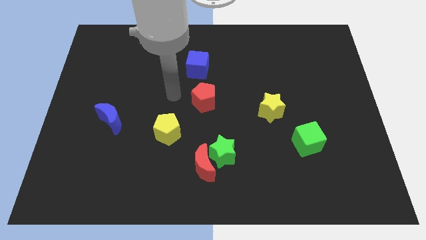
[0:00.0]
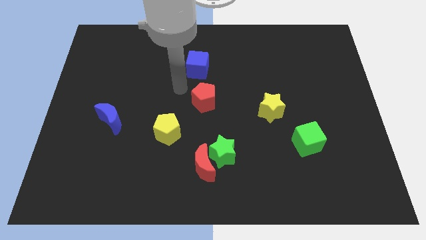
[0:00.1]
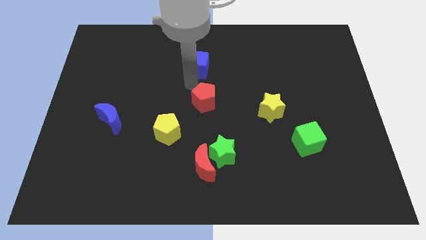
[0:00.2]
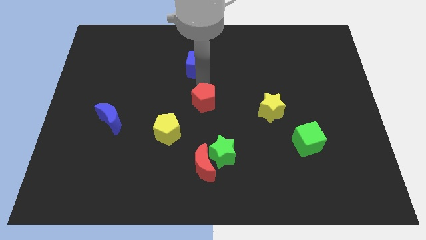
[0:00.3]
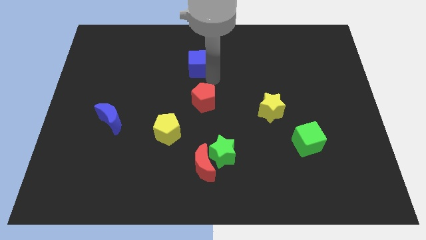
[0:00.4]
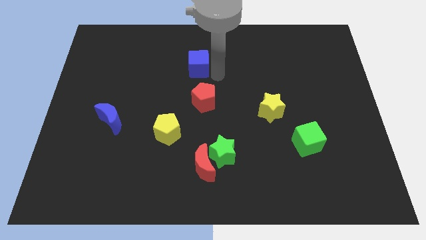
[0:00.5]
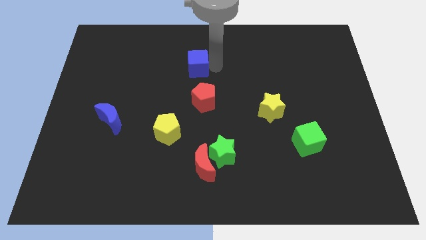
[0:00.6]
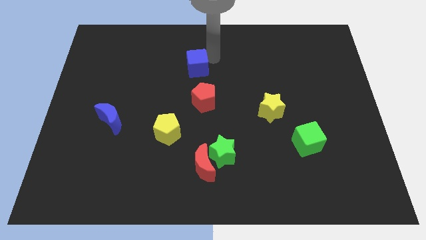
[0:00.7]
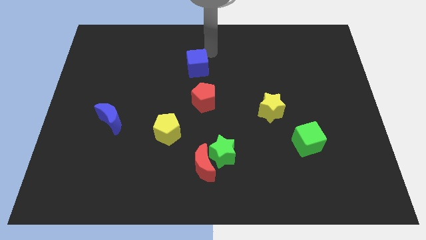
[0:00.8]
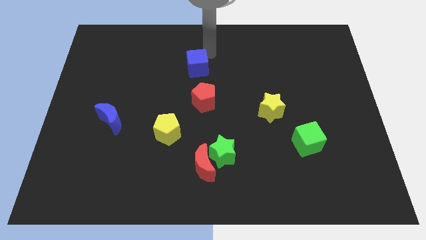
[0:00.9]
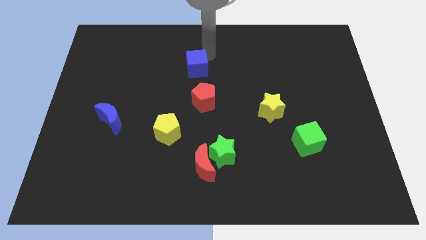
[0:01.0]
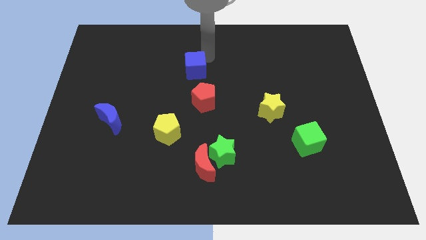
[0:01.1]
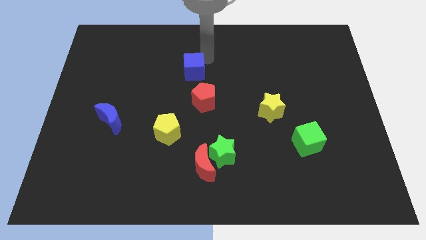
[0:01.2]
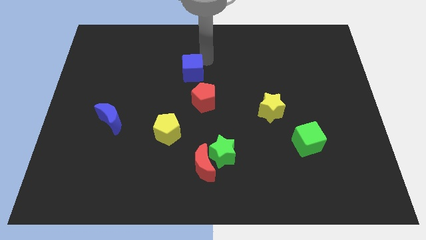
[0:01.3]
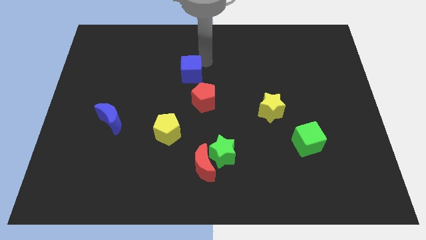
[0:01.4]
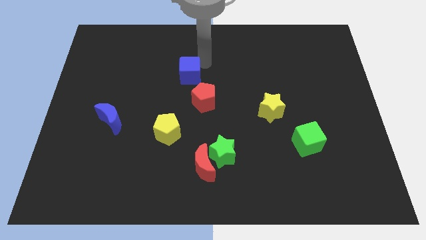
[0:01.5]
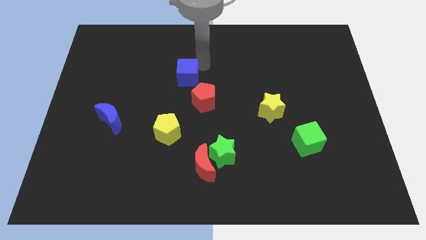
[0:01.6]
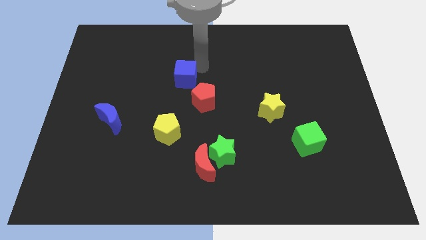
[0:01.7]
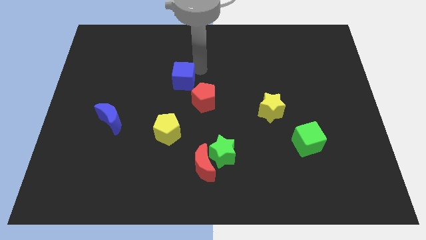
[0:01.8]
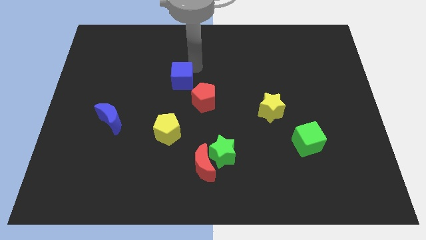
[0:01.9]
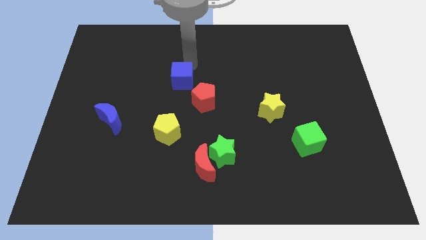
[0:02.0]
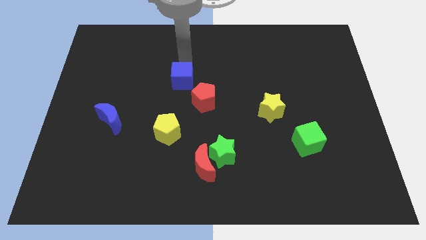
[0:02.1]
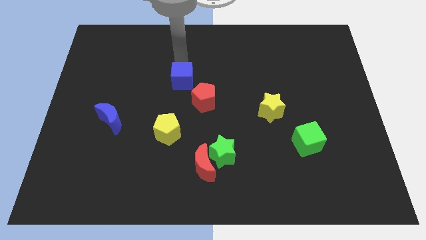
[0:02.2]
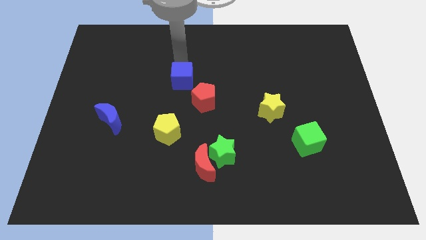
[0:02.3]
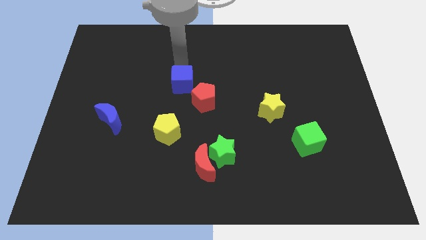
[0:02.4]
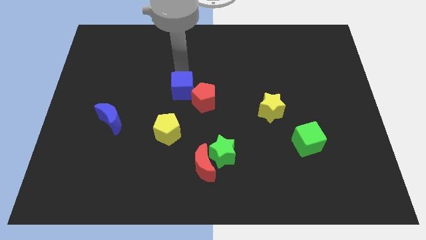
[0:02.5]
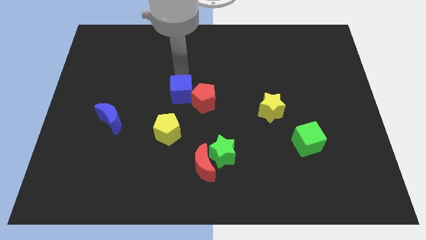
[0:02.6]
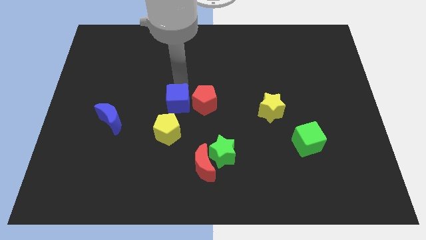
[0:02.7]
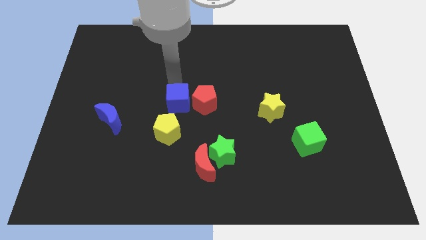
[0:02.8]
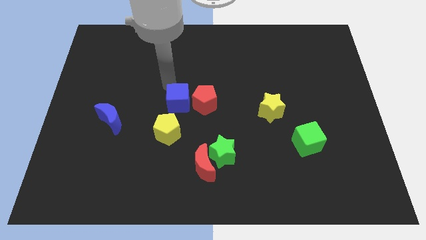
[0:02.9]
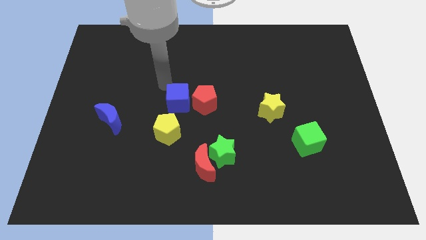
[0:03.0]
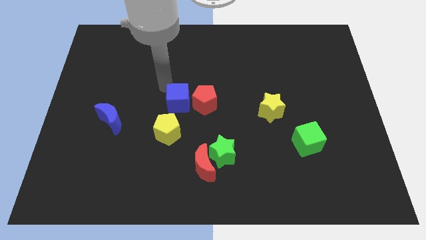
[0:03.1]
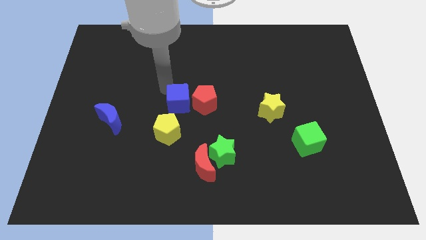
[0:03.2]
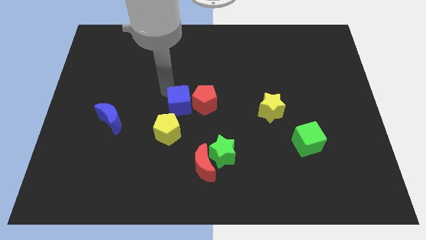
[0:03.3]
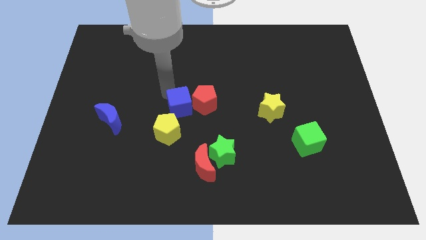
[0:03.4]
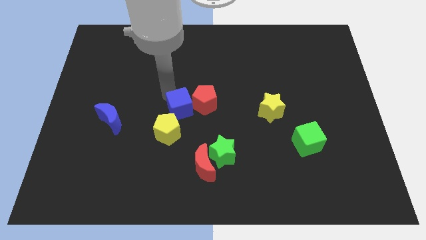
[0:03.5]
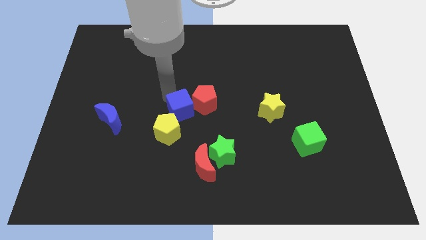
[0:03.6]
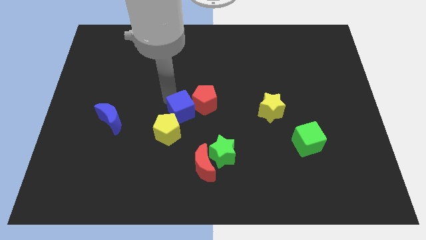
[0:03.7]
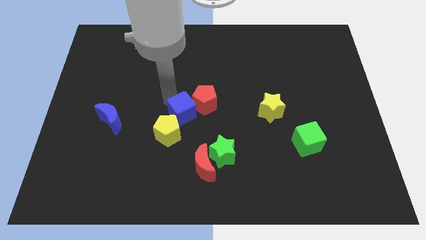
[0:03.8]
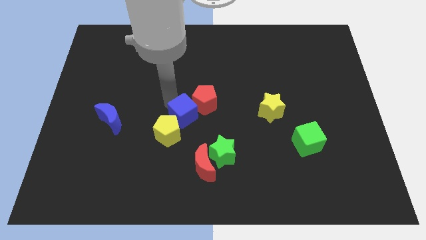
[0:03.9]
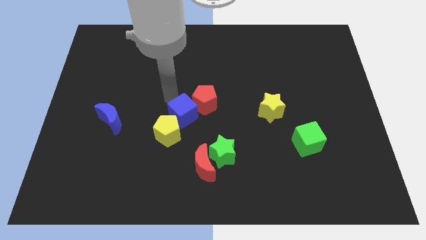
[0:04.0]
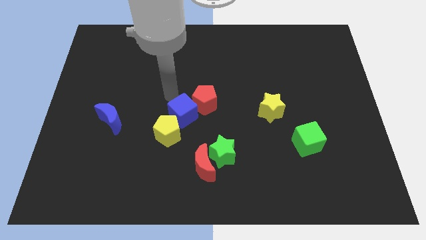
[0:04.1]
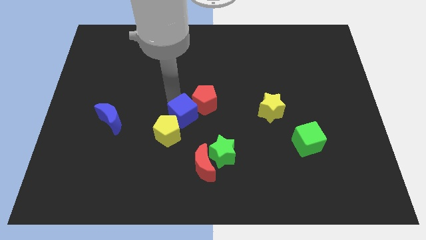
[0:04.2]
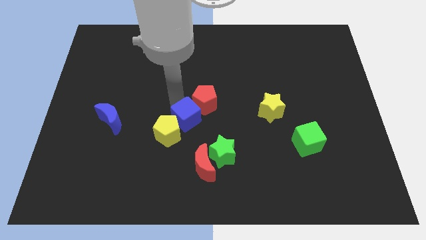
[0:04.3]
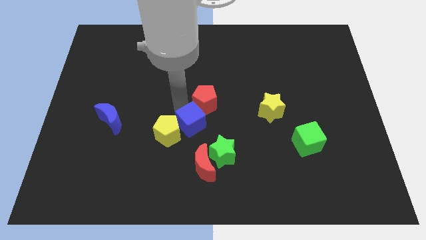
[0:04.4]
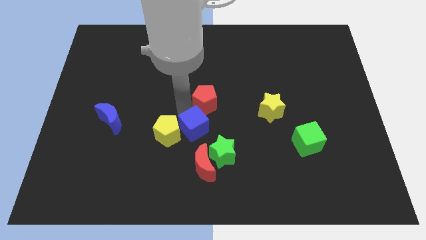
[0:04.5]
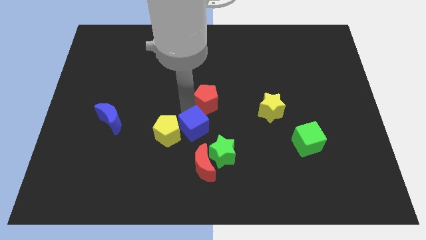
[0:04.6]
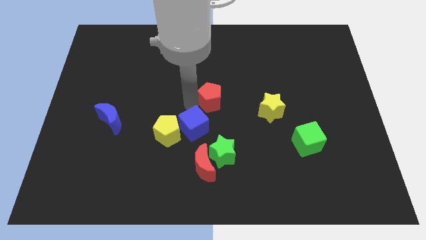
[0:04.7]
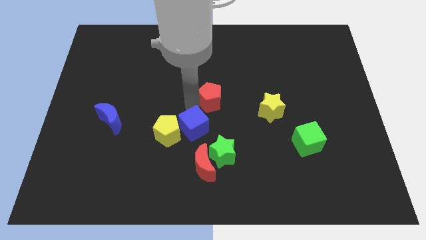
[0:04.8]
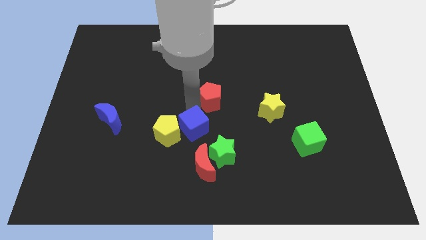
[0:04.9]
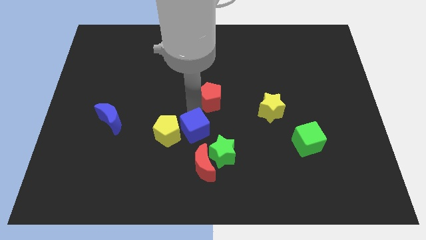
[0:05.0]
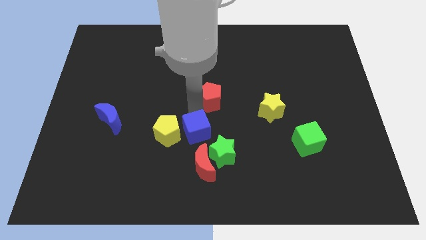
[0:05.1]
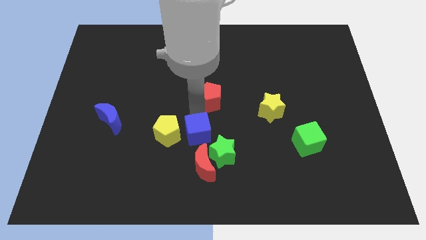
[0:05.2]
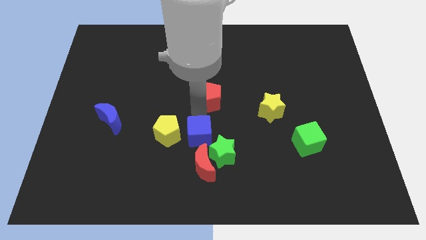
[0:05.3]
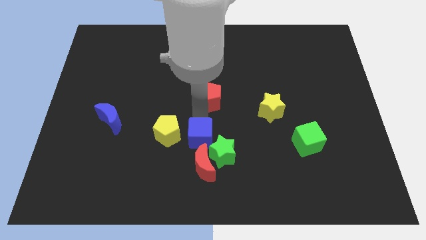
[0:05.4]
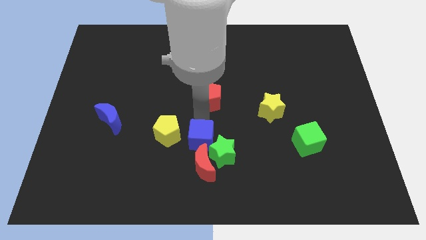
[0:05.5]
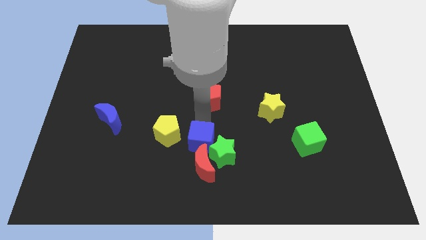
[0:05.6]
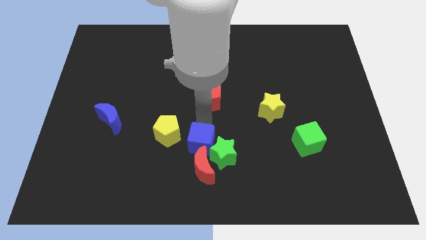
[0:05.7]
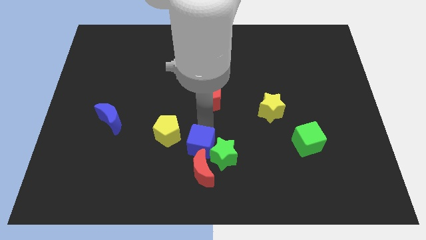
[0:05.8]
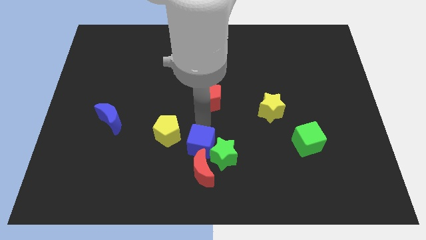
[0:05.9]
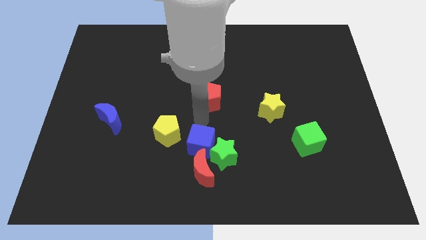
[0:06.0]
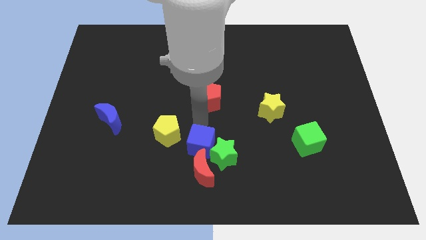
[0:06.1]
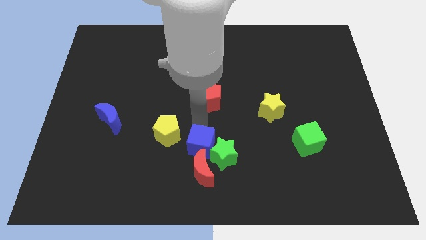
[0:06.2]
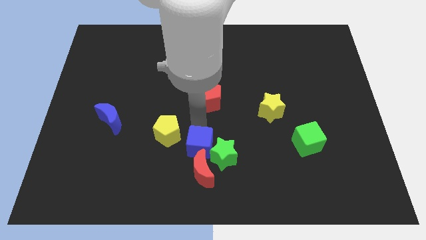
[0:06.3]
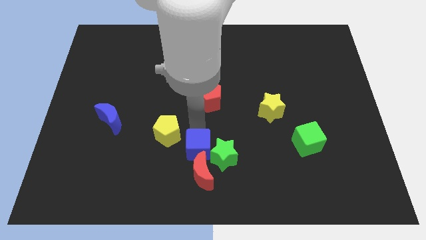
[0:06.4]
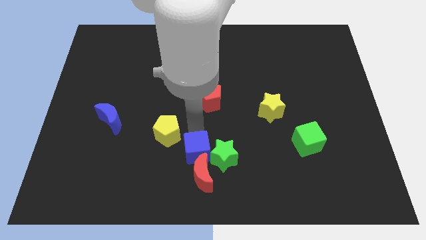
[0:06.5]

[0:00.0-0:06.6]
push the blue cube towards the red moon
